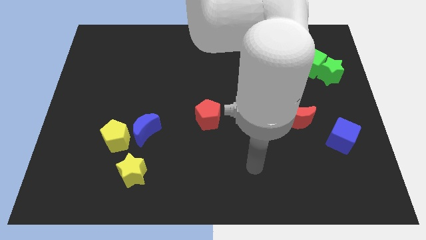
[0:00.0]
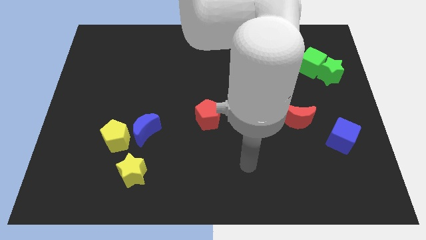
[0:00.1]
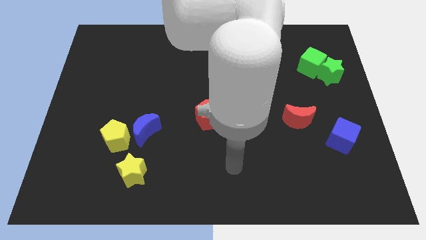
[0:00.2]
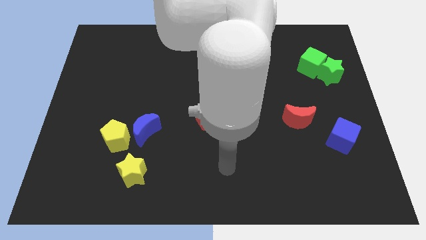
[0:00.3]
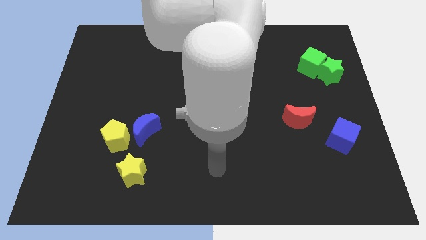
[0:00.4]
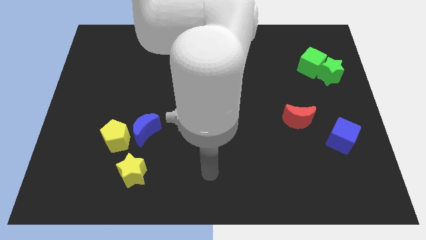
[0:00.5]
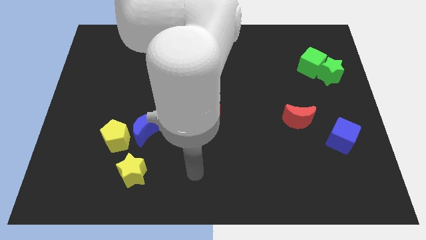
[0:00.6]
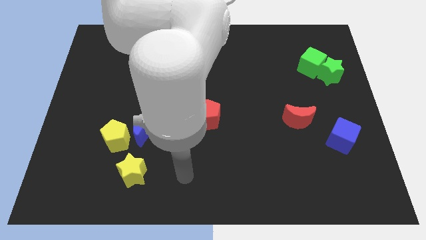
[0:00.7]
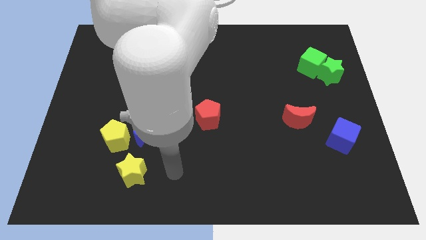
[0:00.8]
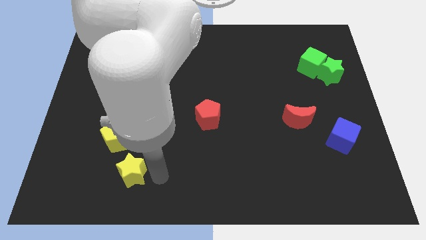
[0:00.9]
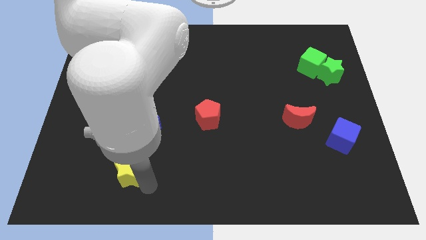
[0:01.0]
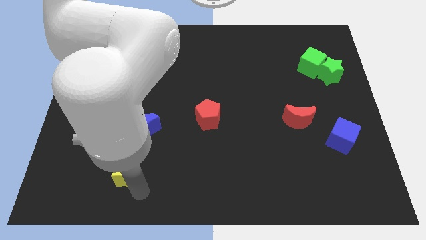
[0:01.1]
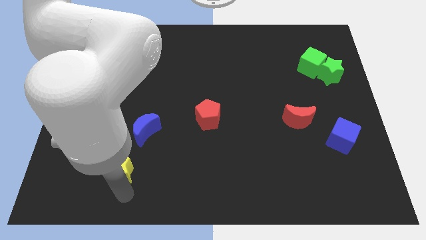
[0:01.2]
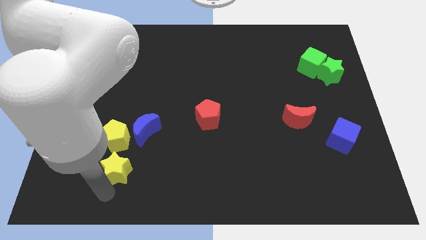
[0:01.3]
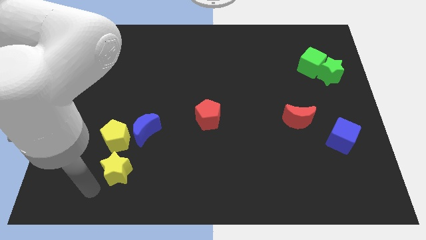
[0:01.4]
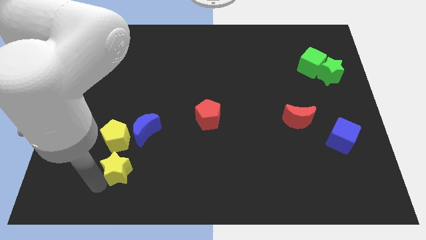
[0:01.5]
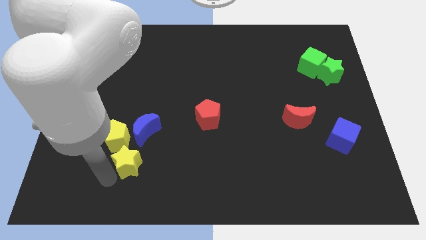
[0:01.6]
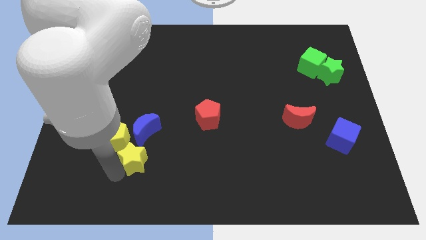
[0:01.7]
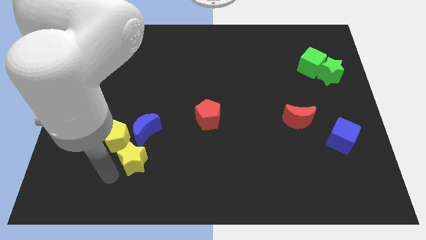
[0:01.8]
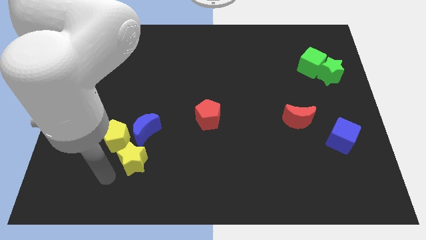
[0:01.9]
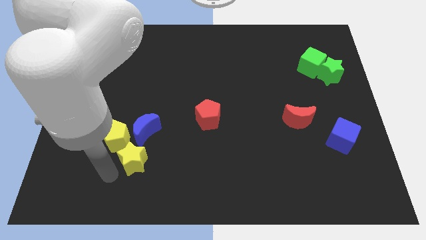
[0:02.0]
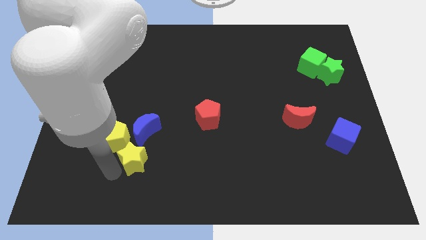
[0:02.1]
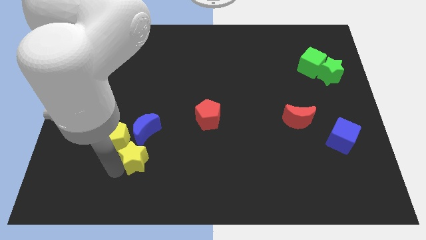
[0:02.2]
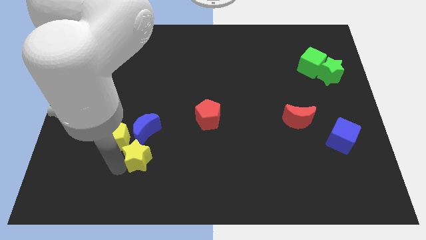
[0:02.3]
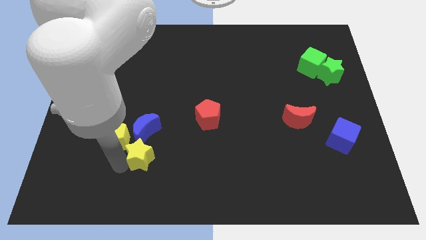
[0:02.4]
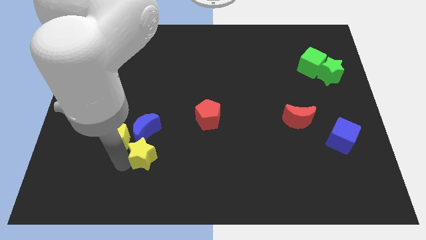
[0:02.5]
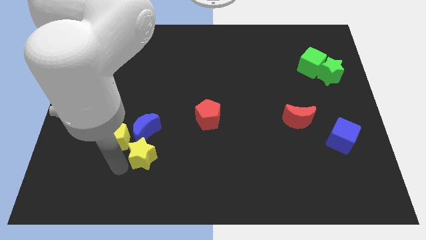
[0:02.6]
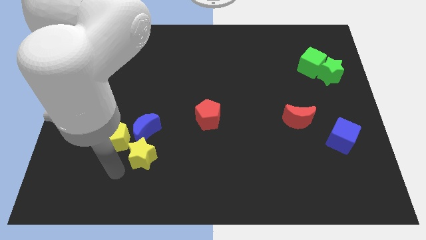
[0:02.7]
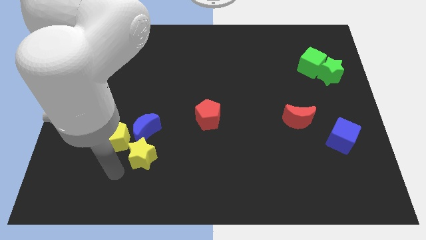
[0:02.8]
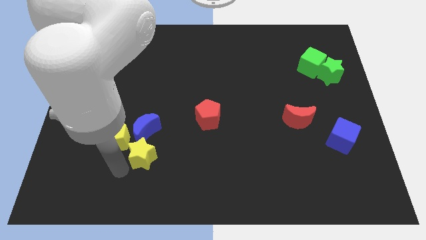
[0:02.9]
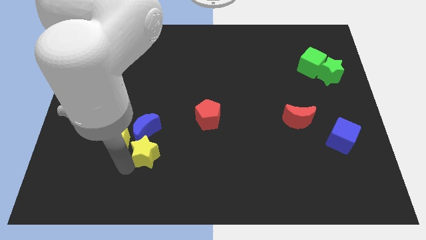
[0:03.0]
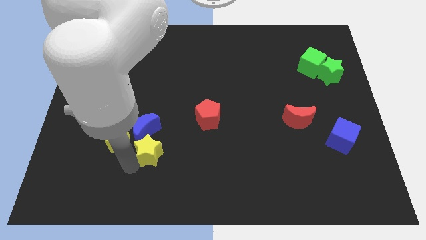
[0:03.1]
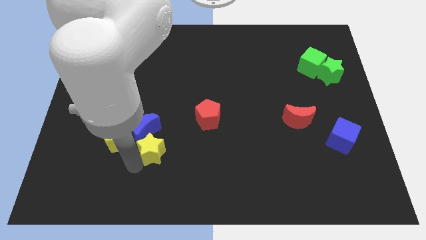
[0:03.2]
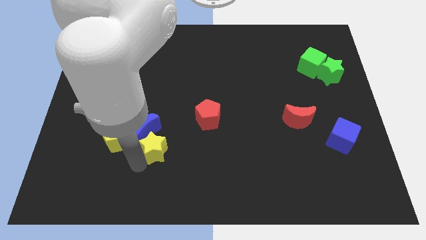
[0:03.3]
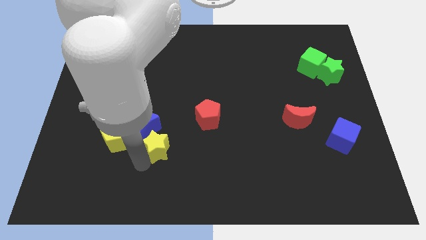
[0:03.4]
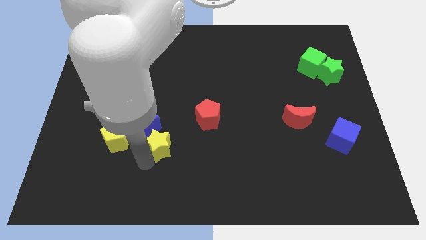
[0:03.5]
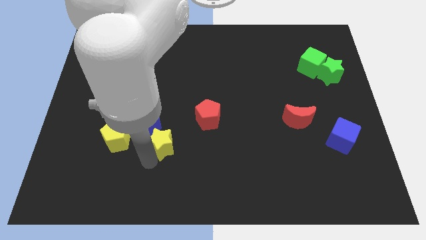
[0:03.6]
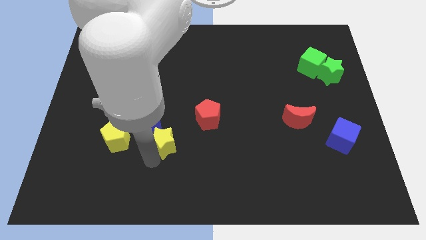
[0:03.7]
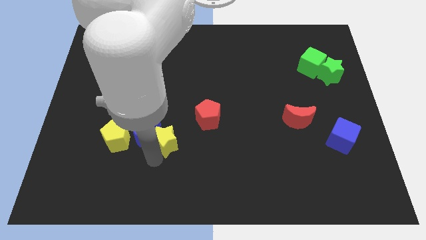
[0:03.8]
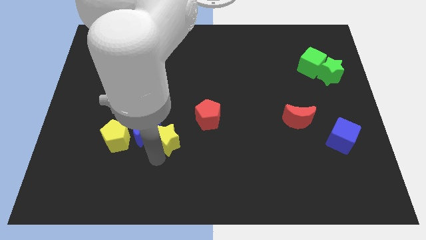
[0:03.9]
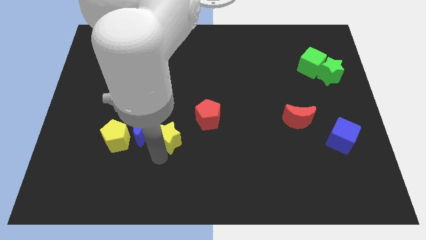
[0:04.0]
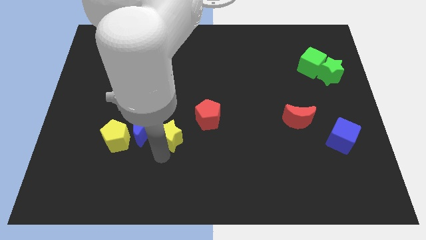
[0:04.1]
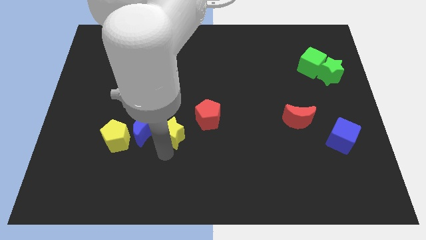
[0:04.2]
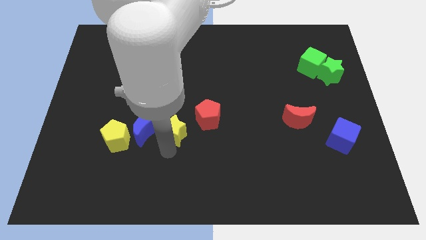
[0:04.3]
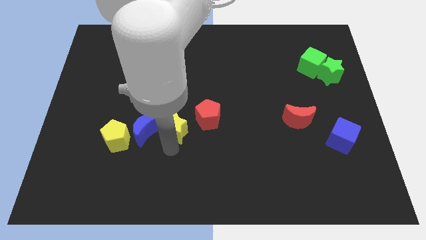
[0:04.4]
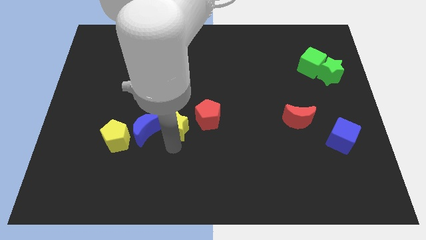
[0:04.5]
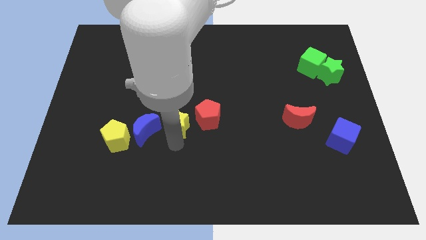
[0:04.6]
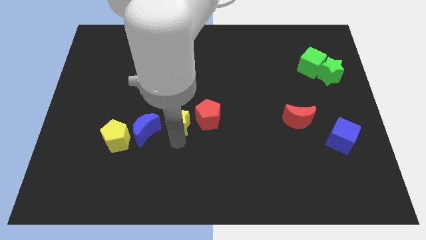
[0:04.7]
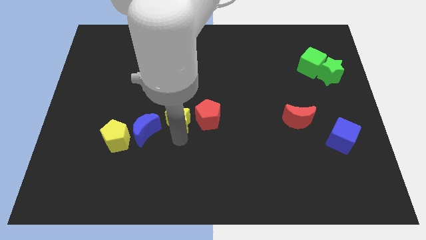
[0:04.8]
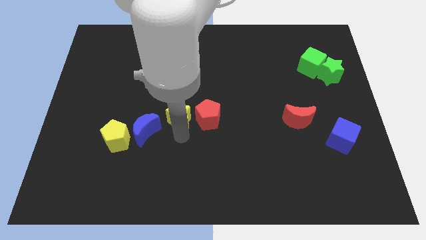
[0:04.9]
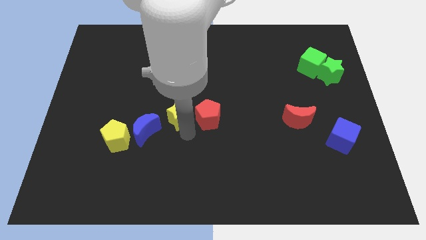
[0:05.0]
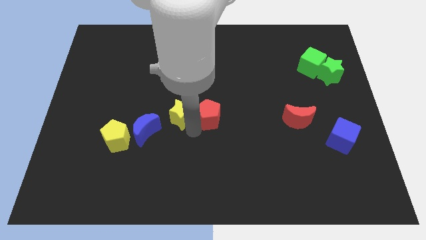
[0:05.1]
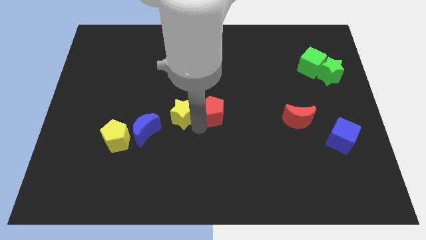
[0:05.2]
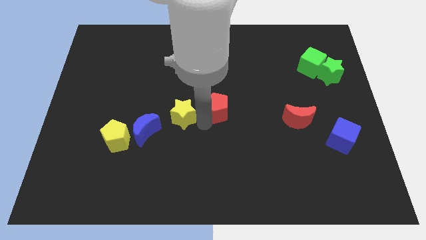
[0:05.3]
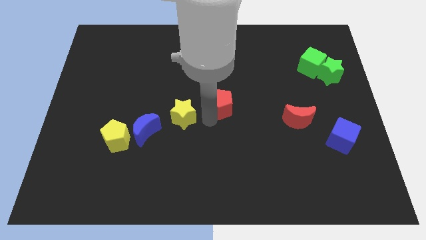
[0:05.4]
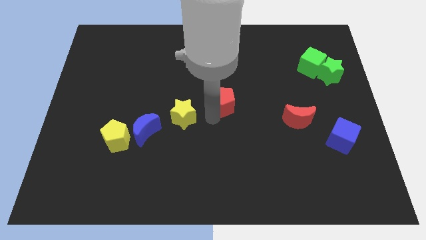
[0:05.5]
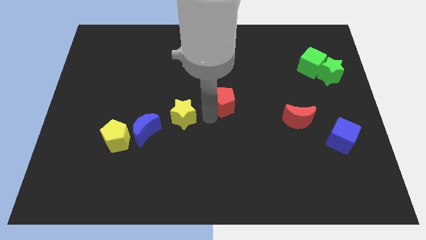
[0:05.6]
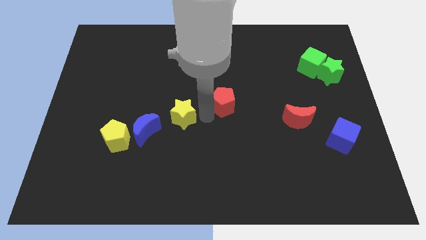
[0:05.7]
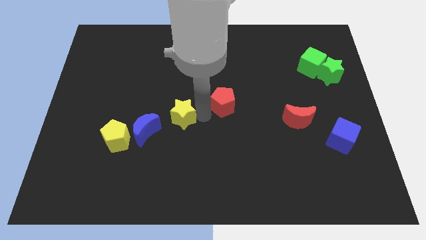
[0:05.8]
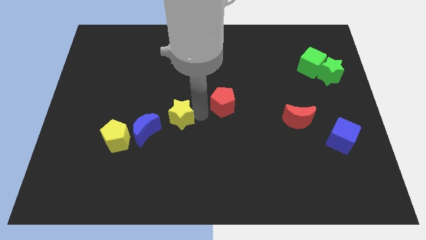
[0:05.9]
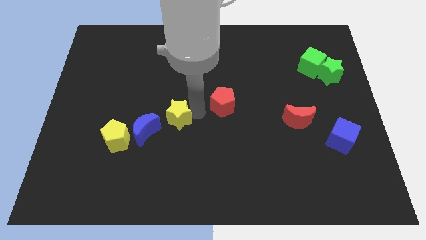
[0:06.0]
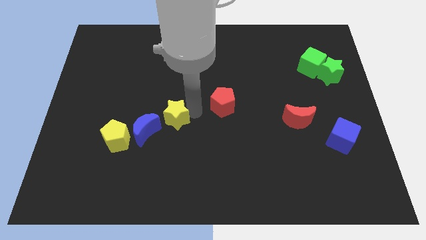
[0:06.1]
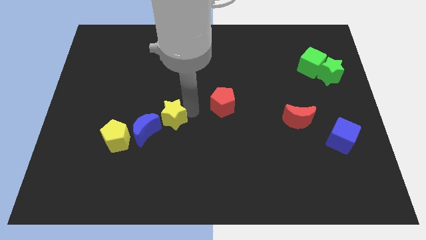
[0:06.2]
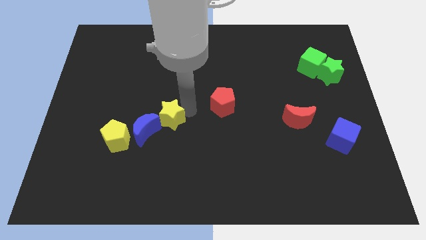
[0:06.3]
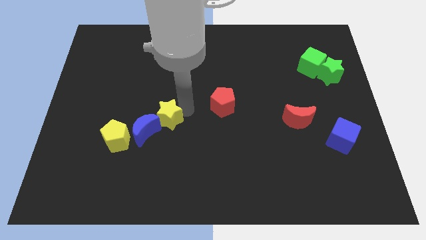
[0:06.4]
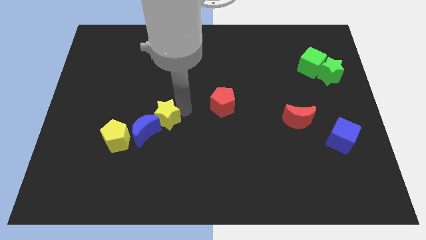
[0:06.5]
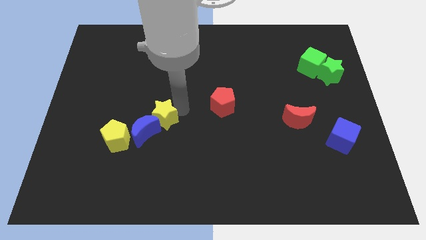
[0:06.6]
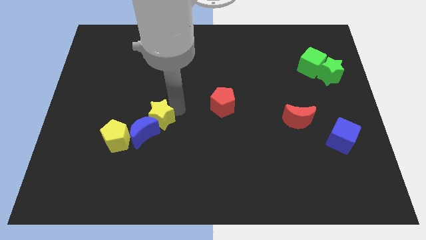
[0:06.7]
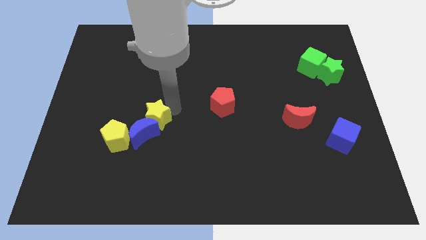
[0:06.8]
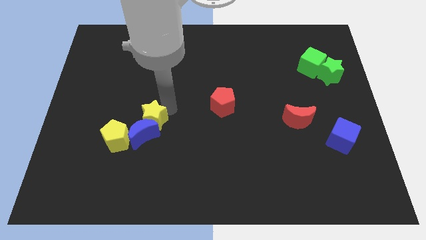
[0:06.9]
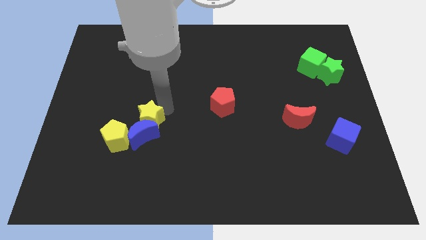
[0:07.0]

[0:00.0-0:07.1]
slide the yellow star diagonally up and to the left of the blue moon

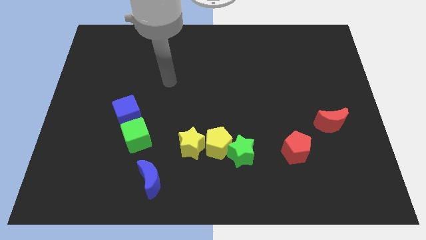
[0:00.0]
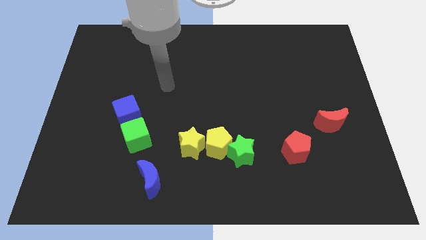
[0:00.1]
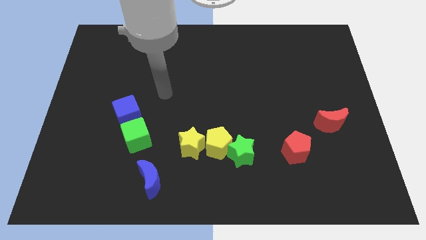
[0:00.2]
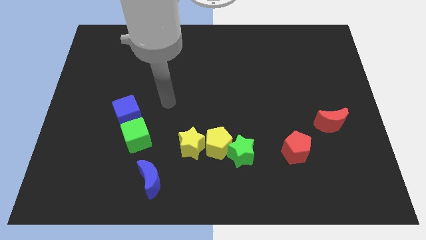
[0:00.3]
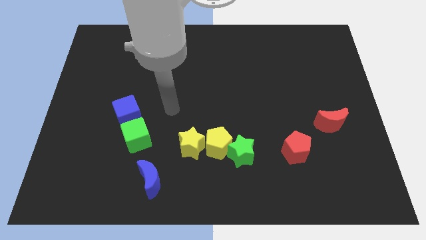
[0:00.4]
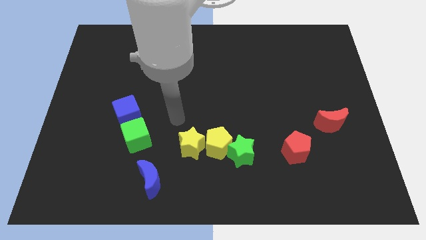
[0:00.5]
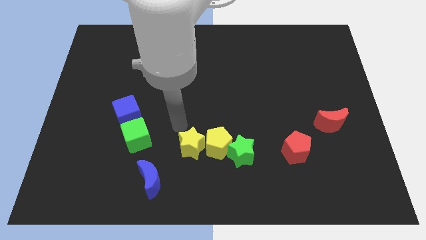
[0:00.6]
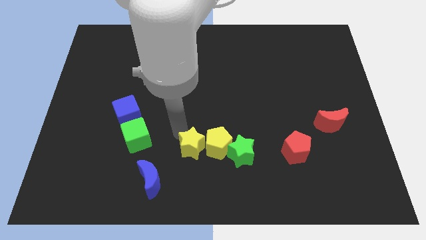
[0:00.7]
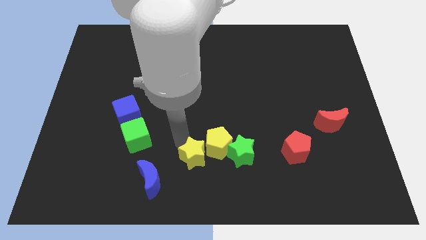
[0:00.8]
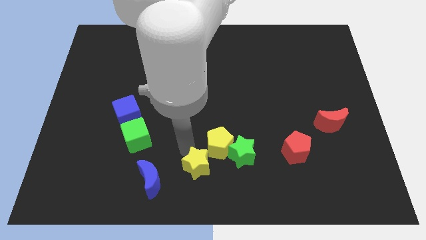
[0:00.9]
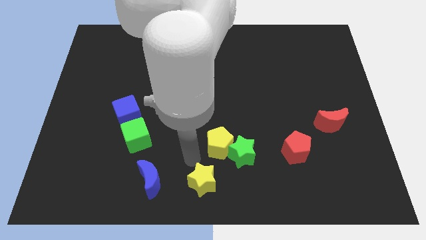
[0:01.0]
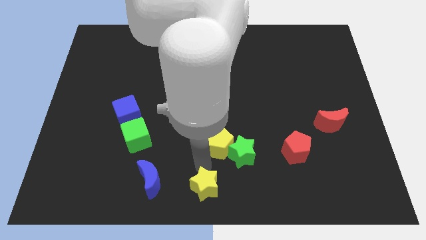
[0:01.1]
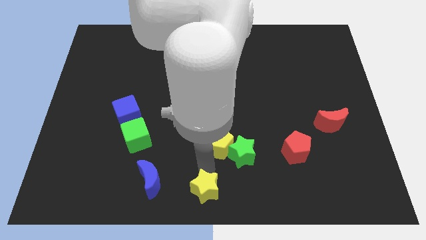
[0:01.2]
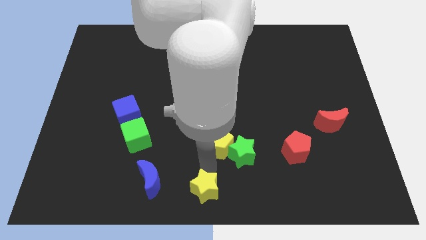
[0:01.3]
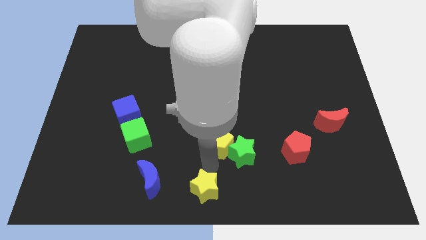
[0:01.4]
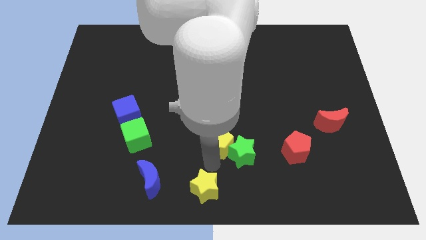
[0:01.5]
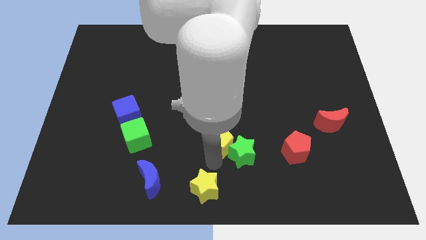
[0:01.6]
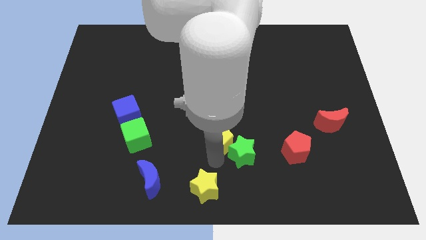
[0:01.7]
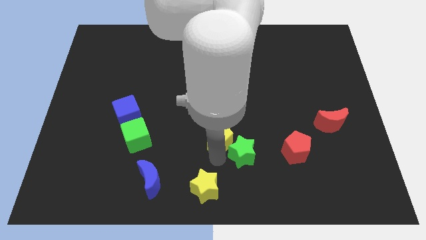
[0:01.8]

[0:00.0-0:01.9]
put the yellow pentagon to the top side of the green star
